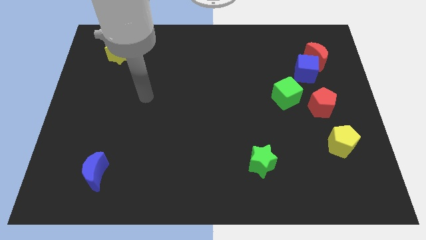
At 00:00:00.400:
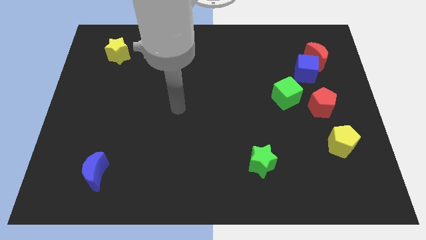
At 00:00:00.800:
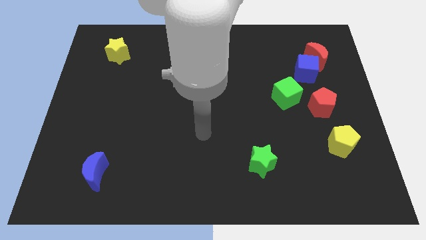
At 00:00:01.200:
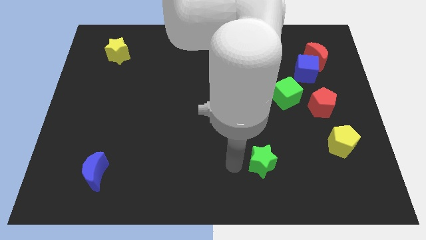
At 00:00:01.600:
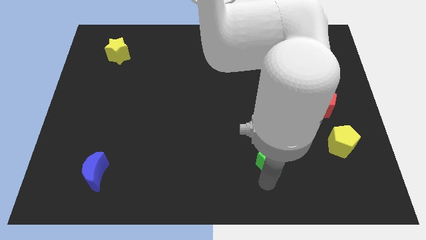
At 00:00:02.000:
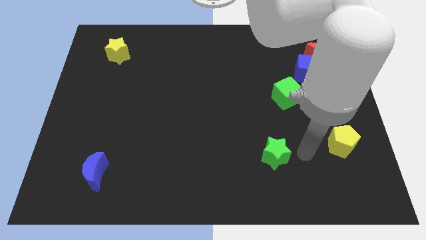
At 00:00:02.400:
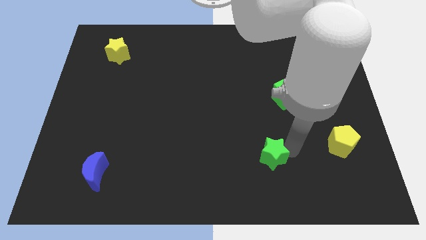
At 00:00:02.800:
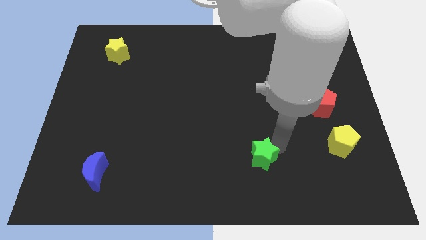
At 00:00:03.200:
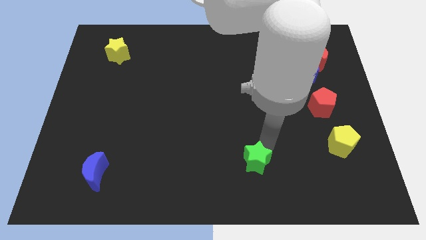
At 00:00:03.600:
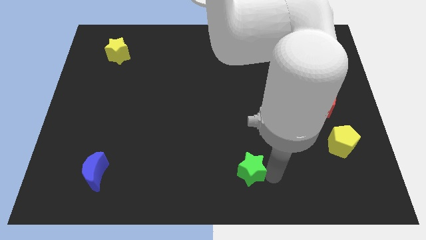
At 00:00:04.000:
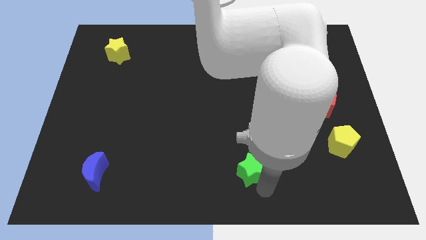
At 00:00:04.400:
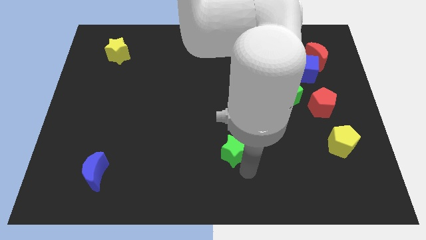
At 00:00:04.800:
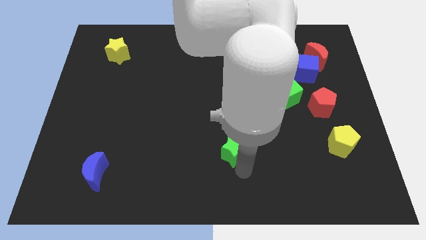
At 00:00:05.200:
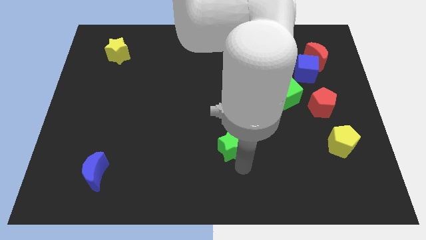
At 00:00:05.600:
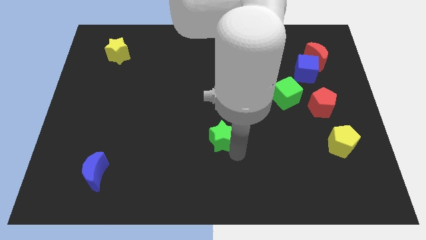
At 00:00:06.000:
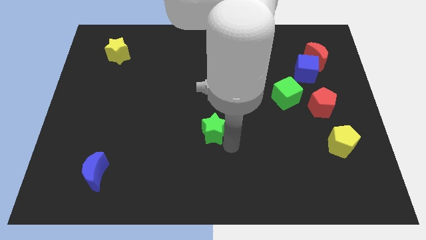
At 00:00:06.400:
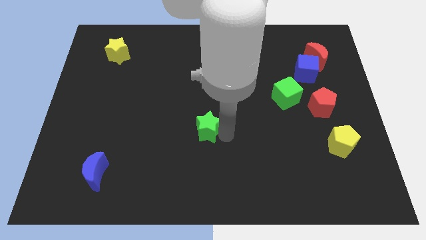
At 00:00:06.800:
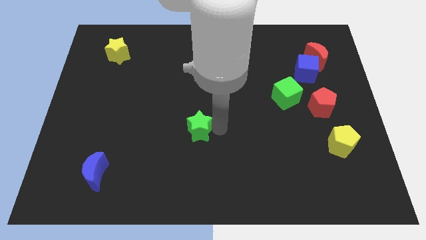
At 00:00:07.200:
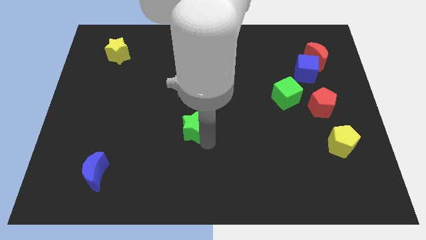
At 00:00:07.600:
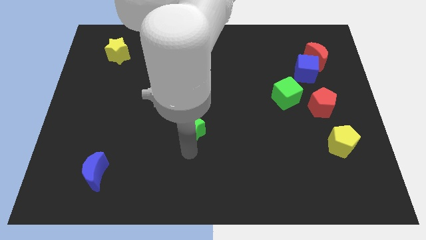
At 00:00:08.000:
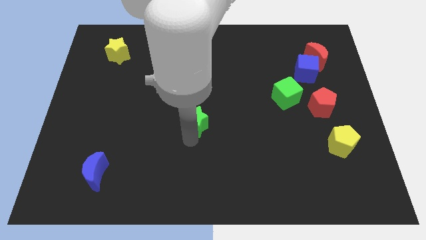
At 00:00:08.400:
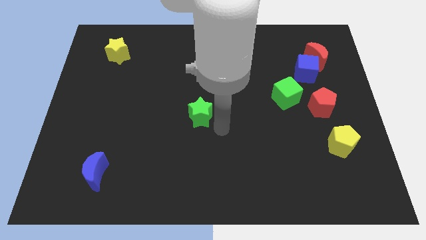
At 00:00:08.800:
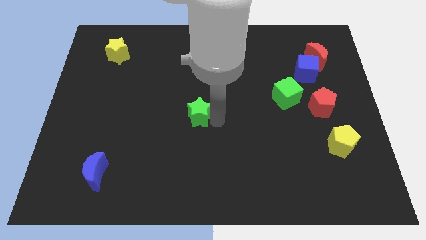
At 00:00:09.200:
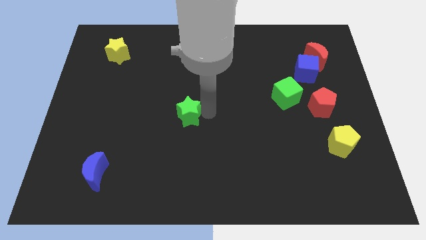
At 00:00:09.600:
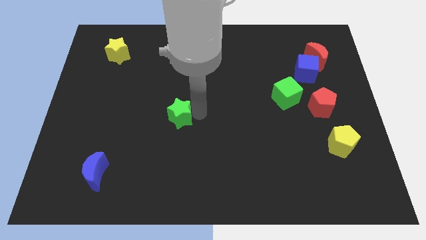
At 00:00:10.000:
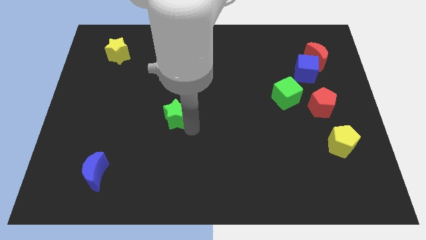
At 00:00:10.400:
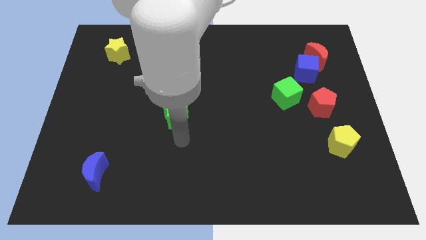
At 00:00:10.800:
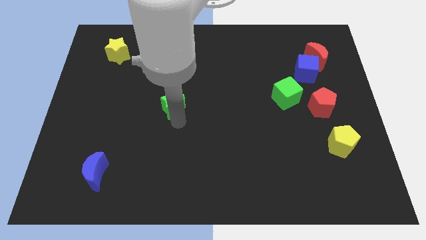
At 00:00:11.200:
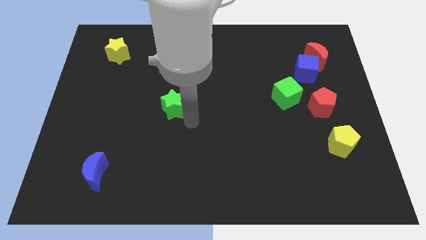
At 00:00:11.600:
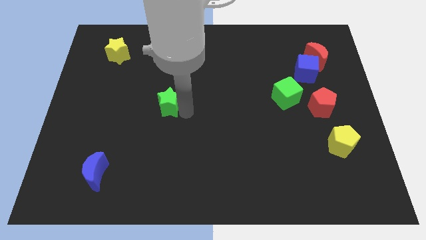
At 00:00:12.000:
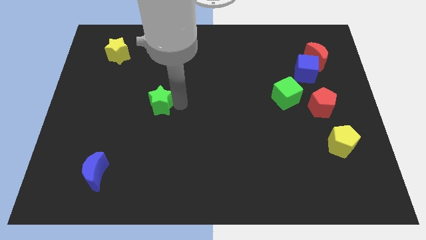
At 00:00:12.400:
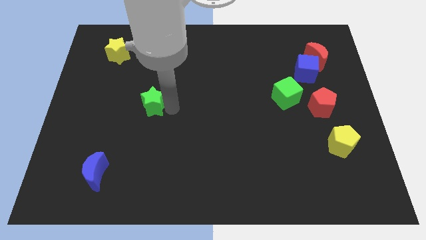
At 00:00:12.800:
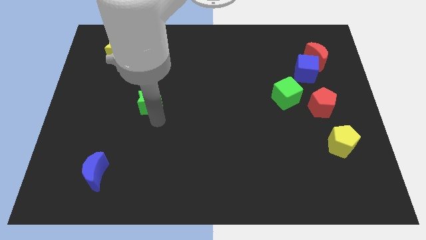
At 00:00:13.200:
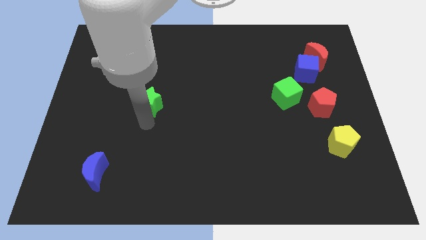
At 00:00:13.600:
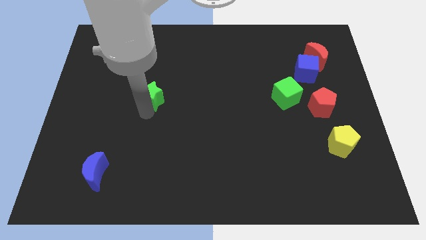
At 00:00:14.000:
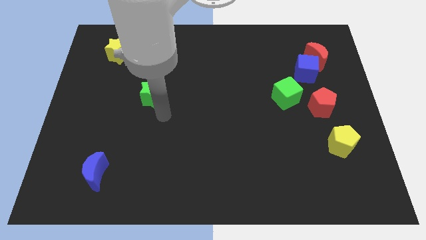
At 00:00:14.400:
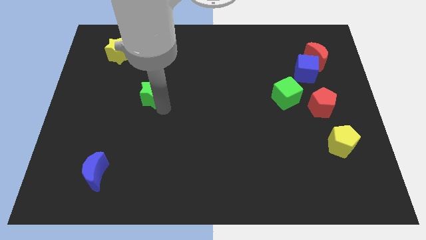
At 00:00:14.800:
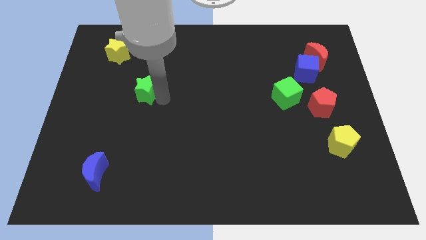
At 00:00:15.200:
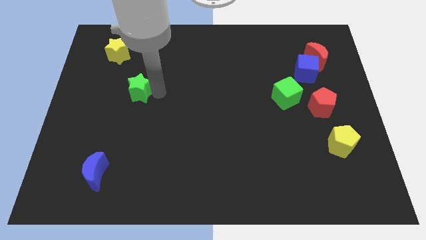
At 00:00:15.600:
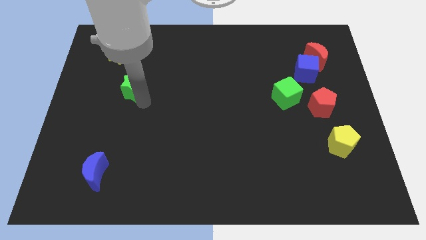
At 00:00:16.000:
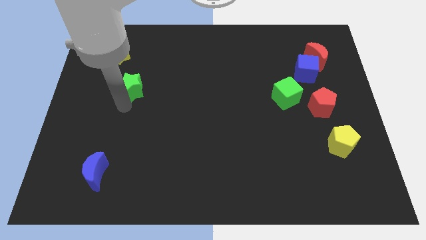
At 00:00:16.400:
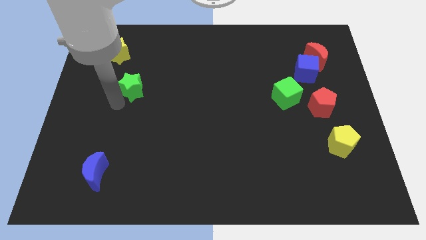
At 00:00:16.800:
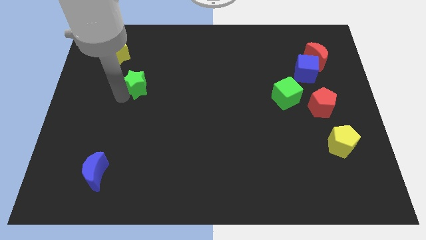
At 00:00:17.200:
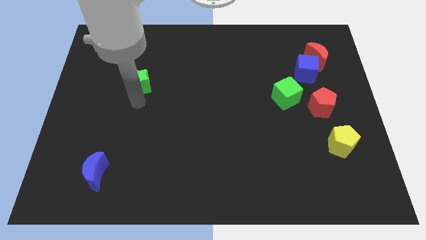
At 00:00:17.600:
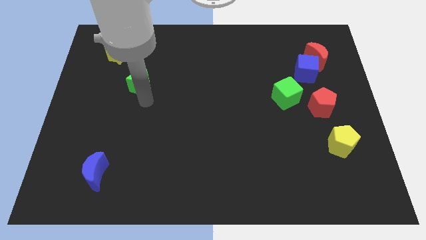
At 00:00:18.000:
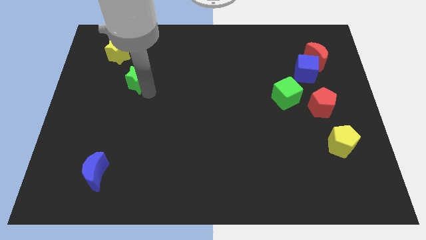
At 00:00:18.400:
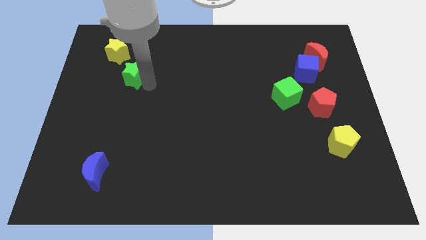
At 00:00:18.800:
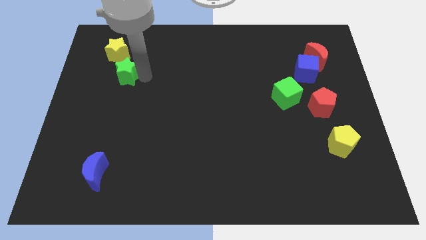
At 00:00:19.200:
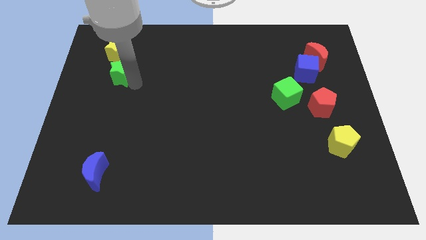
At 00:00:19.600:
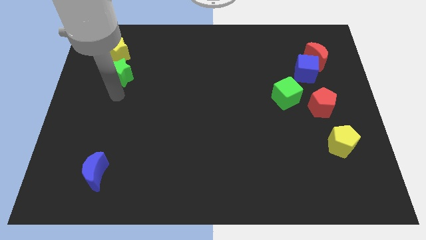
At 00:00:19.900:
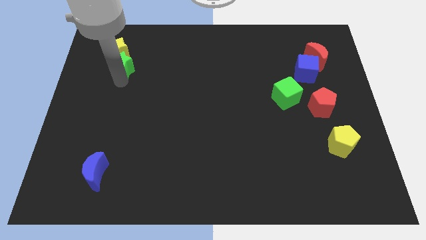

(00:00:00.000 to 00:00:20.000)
move the green star to the yellow star

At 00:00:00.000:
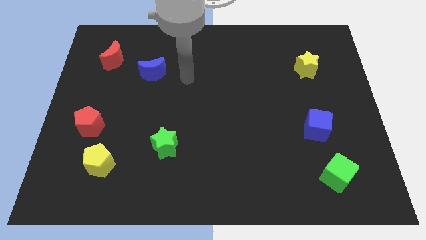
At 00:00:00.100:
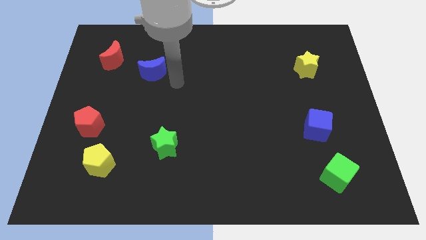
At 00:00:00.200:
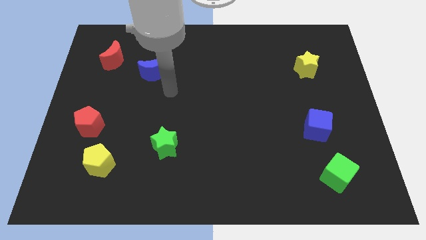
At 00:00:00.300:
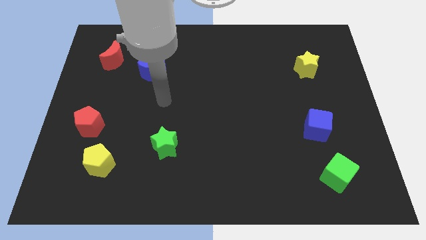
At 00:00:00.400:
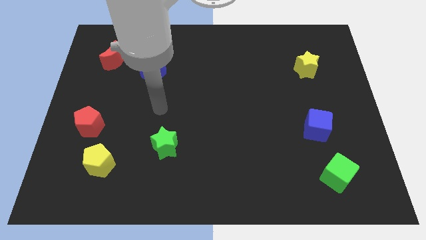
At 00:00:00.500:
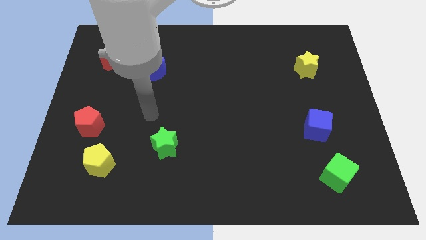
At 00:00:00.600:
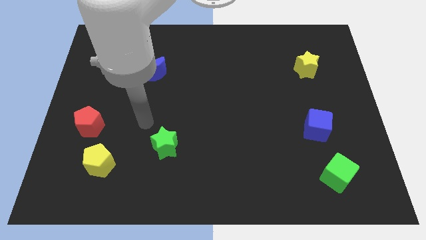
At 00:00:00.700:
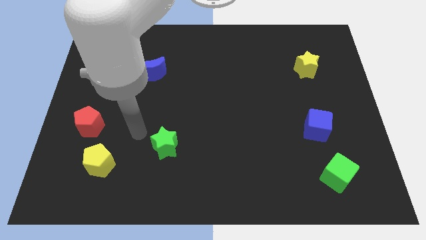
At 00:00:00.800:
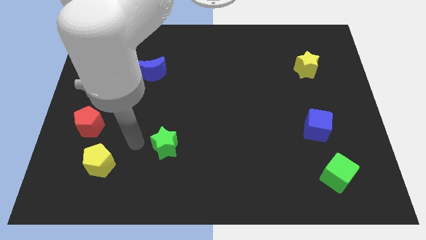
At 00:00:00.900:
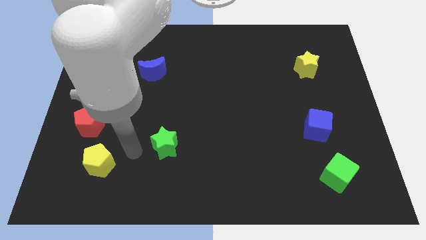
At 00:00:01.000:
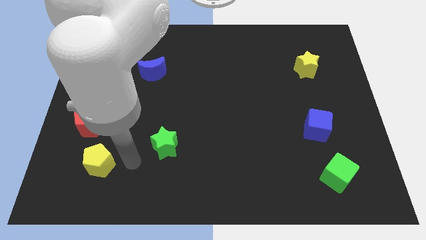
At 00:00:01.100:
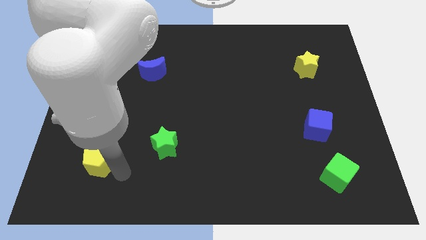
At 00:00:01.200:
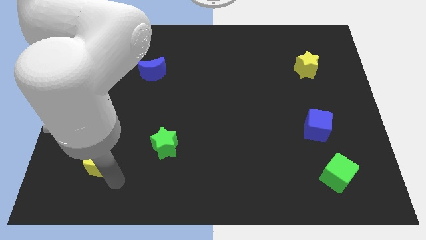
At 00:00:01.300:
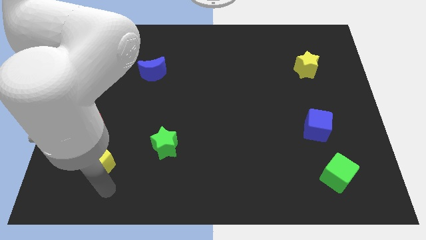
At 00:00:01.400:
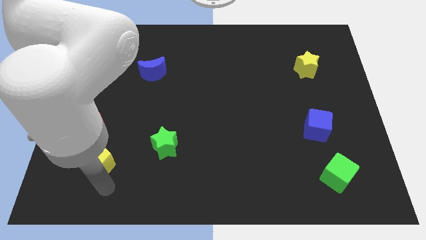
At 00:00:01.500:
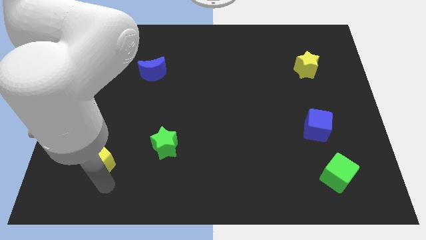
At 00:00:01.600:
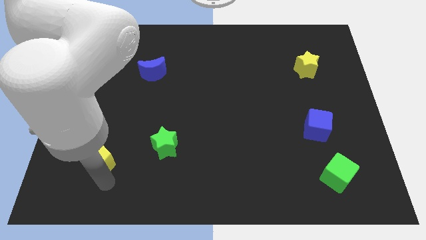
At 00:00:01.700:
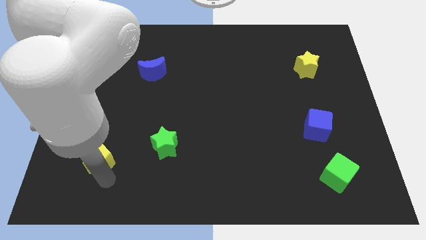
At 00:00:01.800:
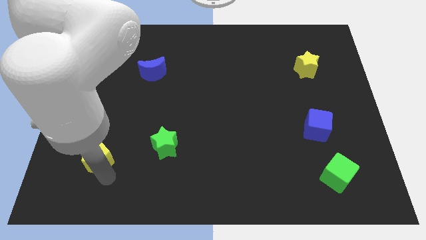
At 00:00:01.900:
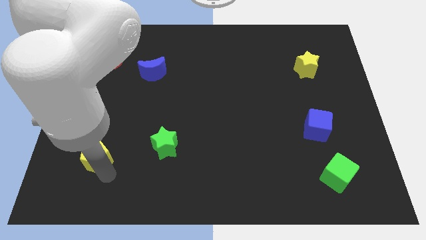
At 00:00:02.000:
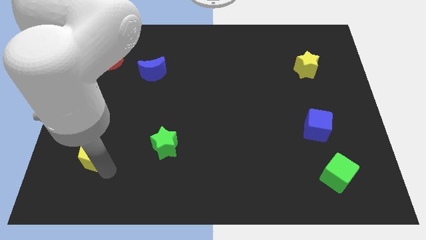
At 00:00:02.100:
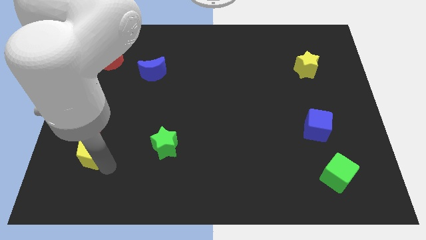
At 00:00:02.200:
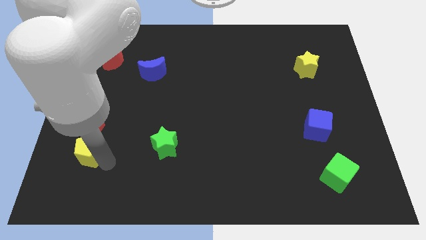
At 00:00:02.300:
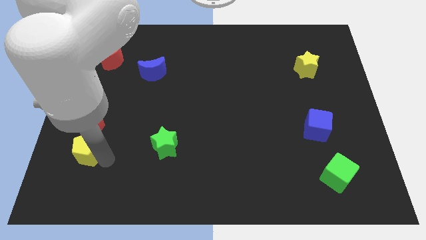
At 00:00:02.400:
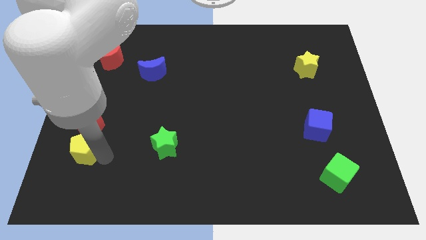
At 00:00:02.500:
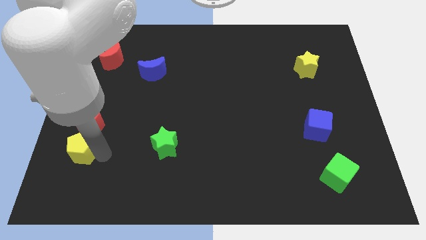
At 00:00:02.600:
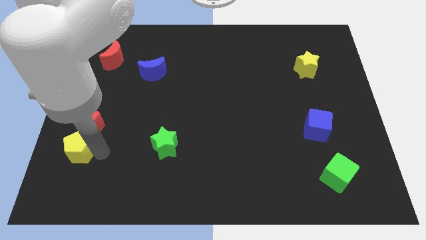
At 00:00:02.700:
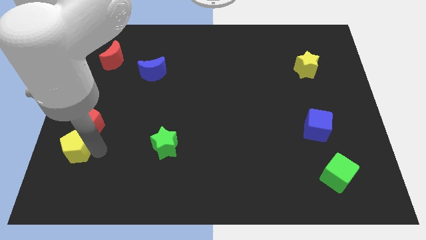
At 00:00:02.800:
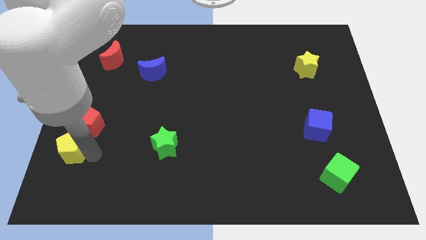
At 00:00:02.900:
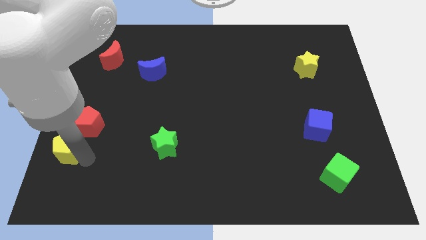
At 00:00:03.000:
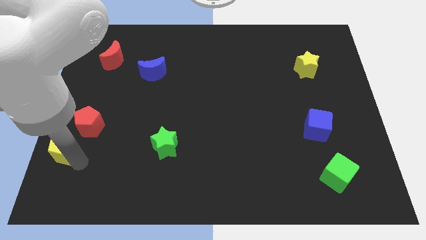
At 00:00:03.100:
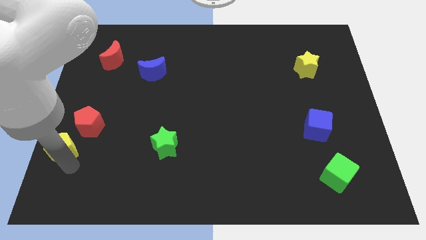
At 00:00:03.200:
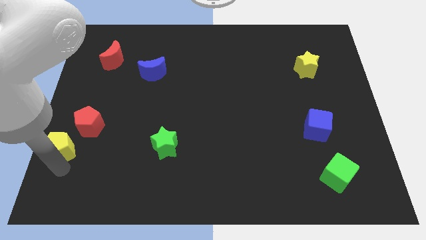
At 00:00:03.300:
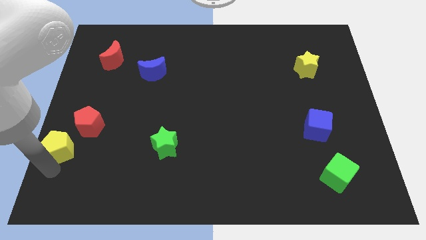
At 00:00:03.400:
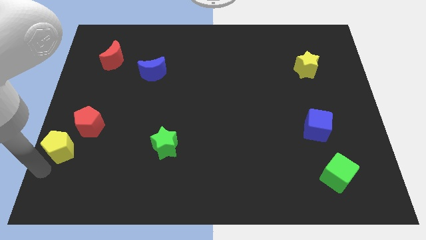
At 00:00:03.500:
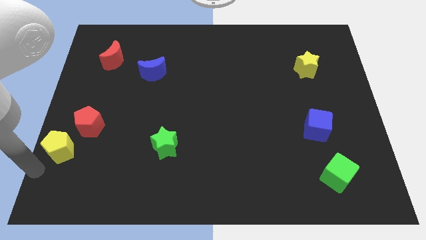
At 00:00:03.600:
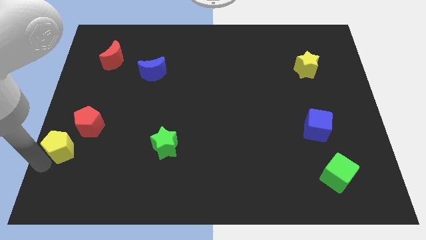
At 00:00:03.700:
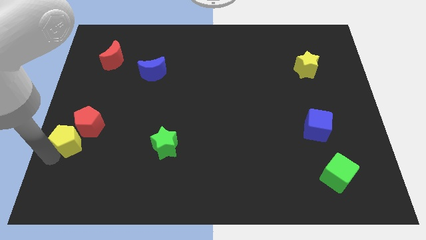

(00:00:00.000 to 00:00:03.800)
slide the yellow pentagon towards the red pentagon
